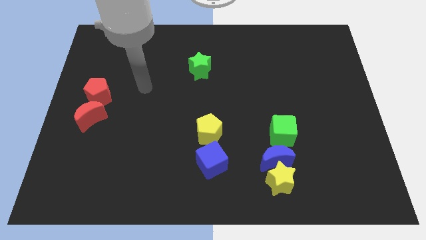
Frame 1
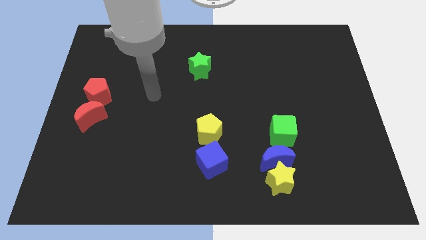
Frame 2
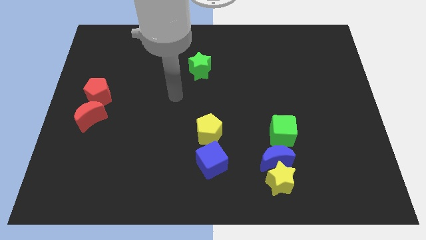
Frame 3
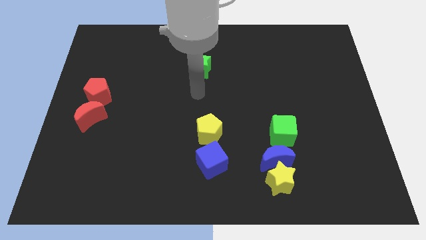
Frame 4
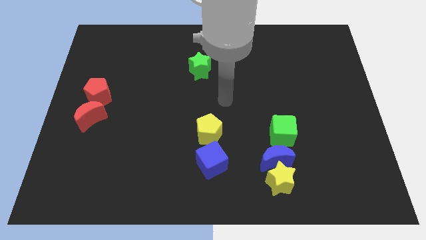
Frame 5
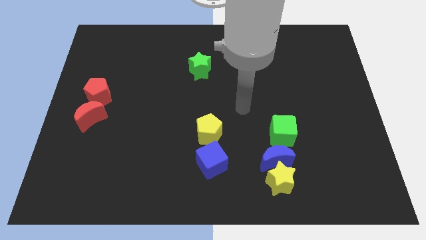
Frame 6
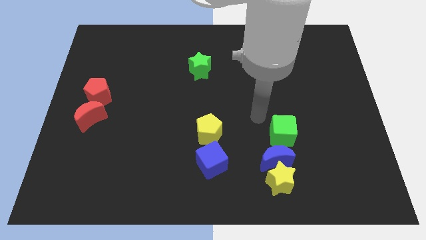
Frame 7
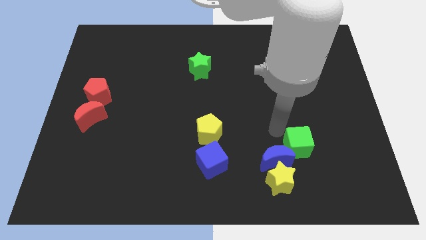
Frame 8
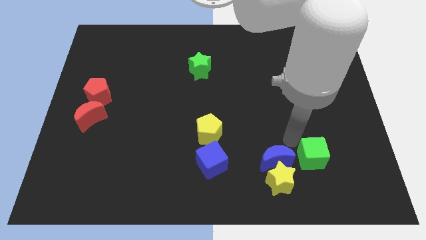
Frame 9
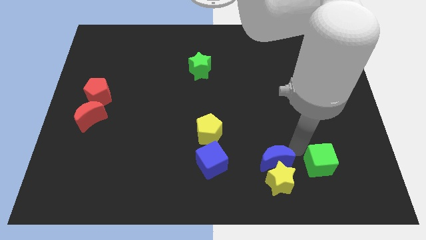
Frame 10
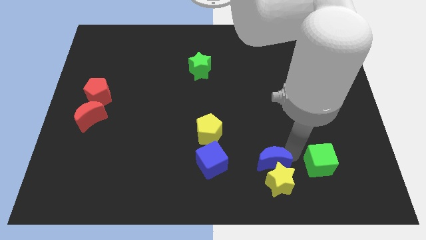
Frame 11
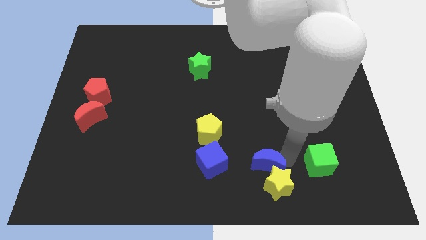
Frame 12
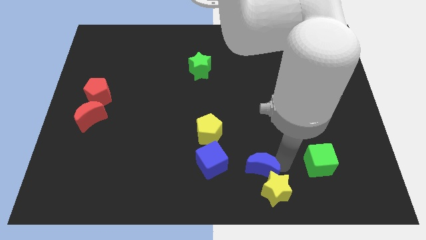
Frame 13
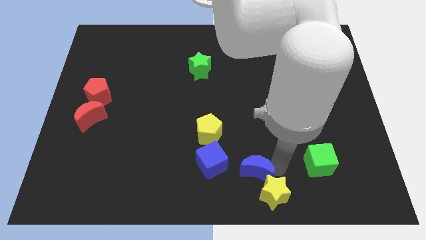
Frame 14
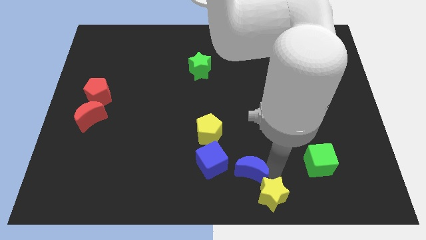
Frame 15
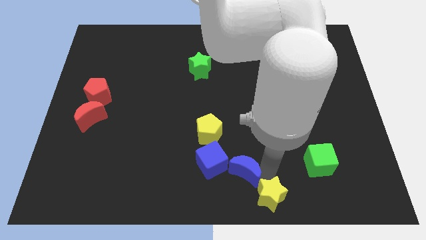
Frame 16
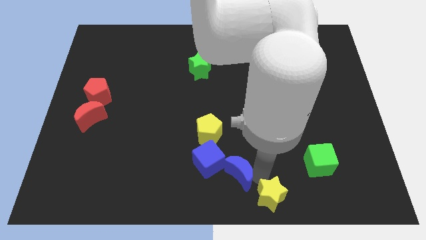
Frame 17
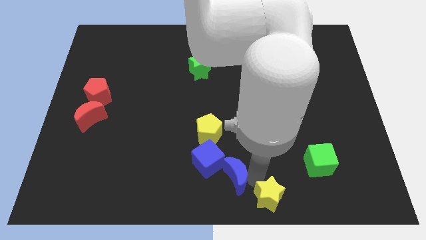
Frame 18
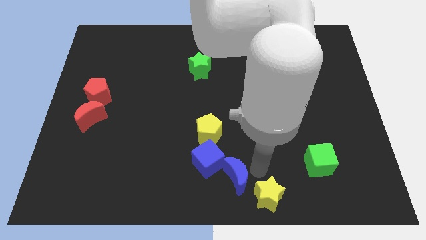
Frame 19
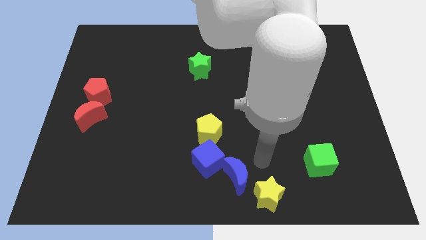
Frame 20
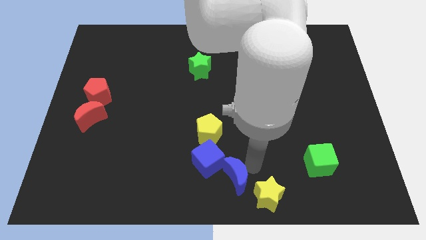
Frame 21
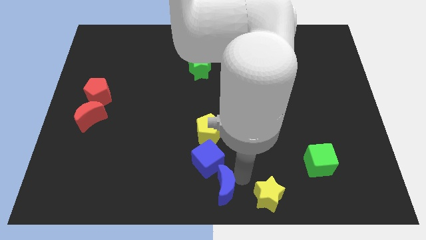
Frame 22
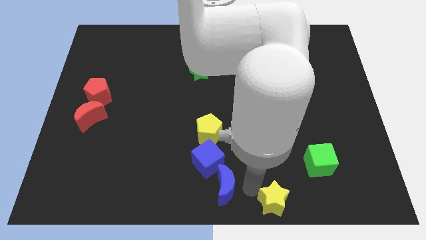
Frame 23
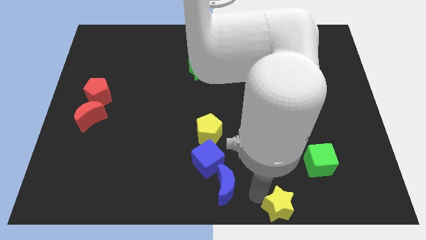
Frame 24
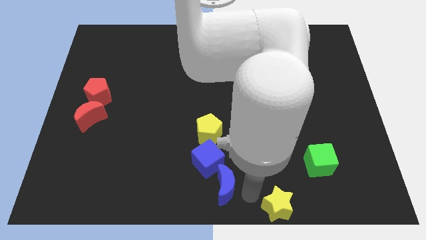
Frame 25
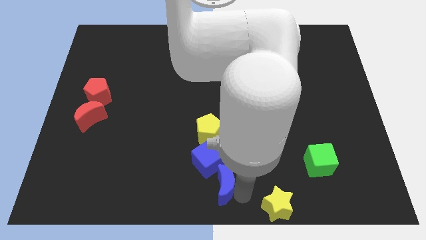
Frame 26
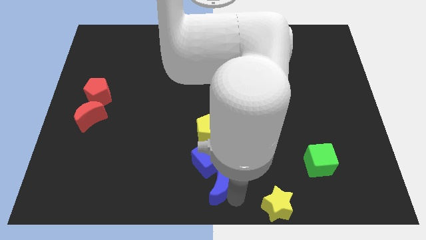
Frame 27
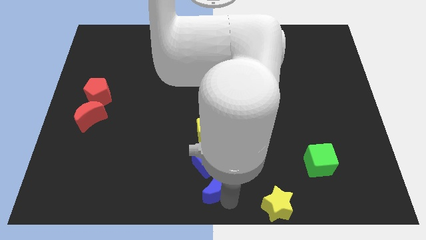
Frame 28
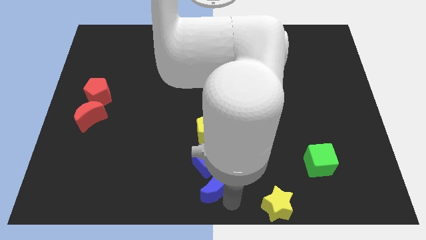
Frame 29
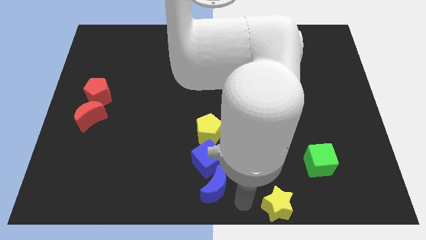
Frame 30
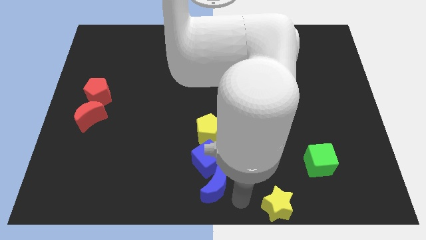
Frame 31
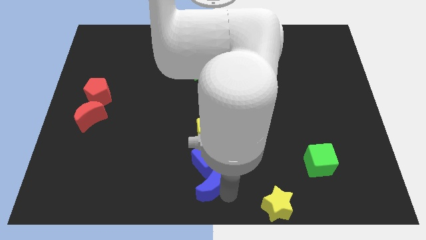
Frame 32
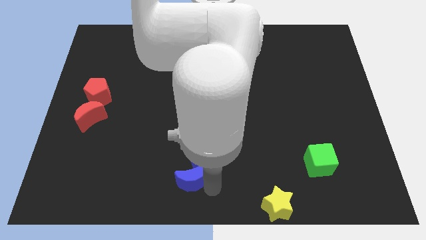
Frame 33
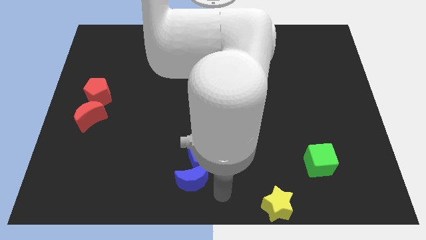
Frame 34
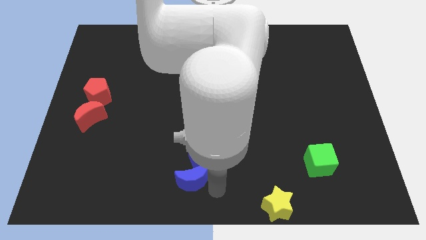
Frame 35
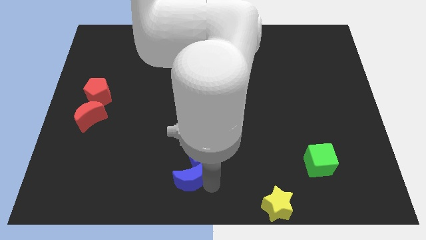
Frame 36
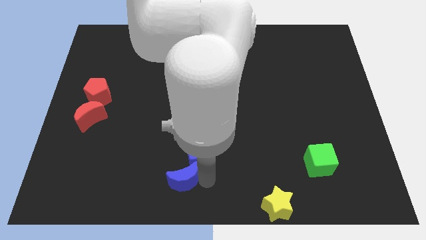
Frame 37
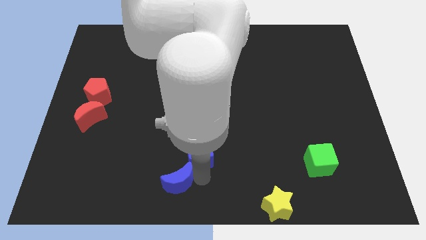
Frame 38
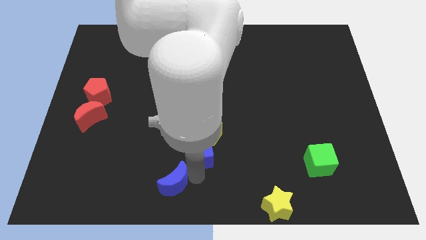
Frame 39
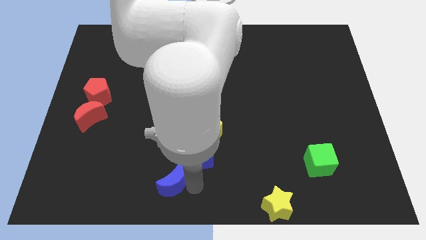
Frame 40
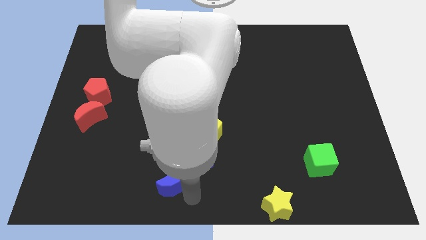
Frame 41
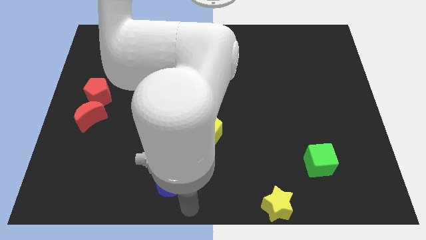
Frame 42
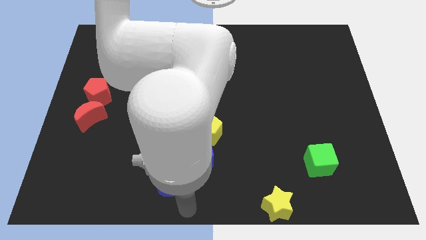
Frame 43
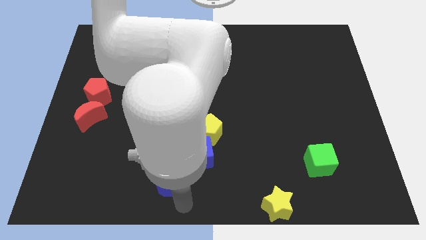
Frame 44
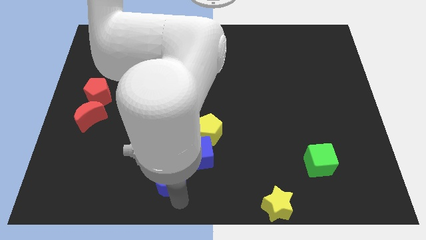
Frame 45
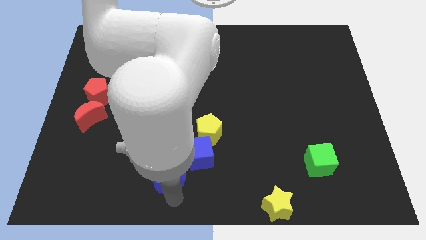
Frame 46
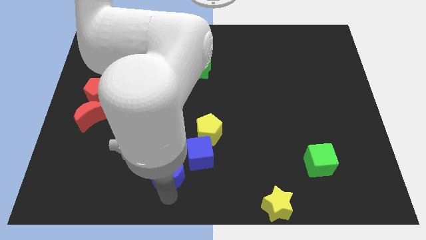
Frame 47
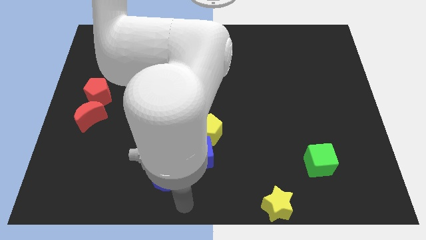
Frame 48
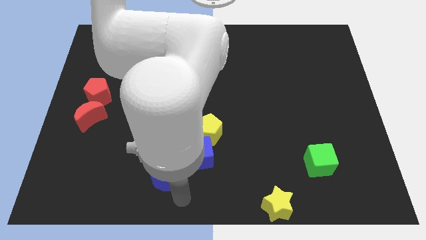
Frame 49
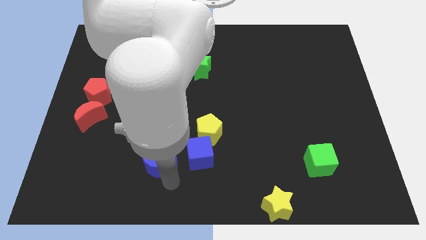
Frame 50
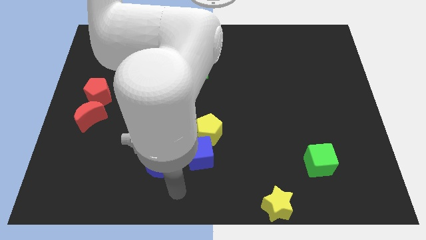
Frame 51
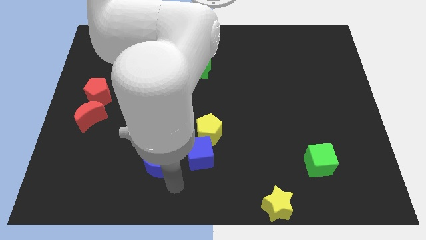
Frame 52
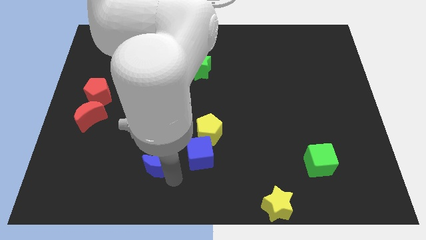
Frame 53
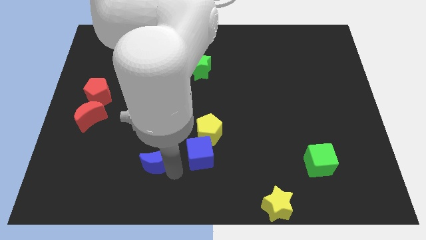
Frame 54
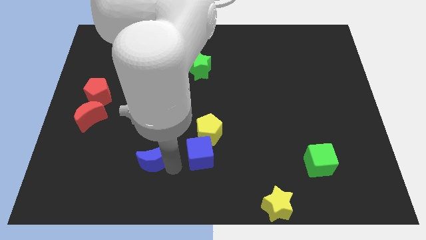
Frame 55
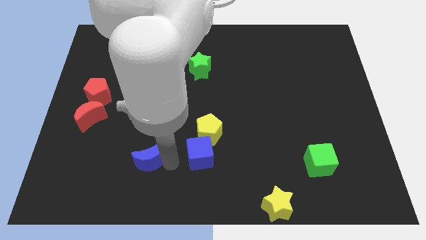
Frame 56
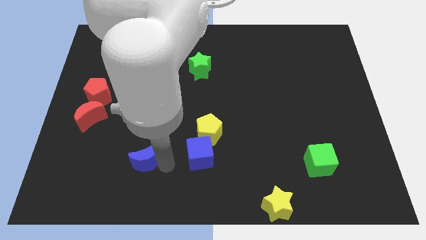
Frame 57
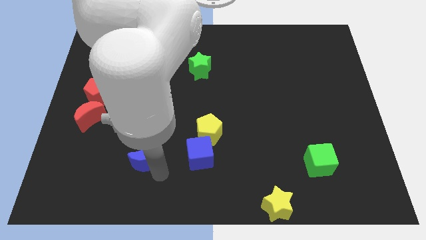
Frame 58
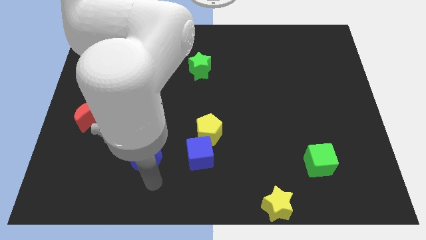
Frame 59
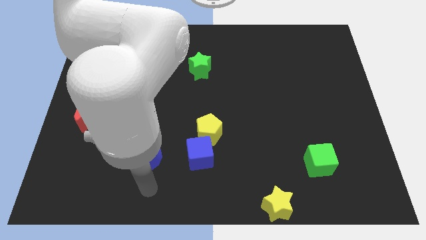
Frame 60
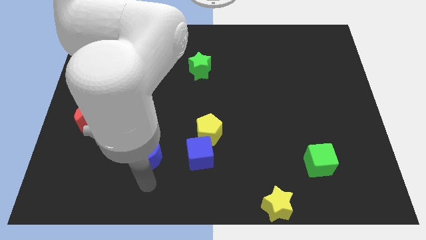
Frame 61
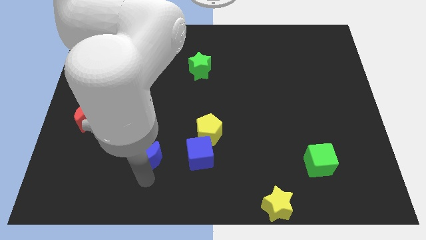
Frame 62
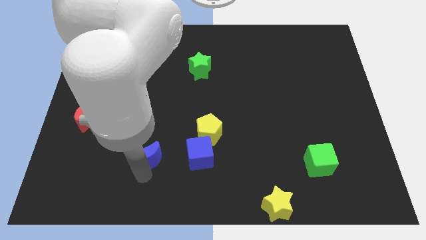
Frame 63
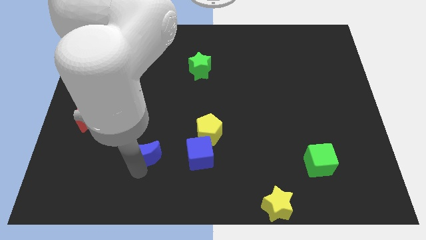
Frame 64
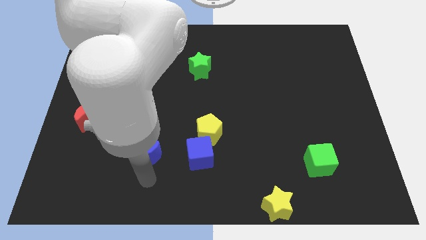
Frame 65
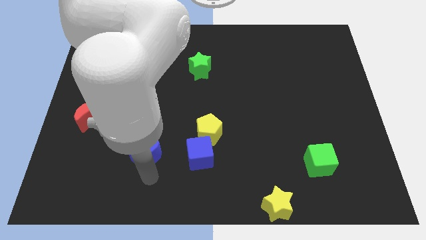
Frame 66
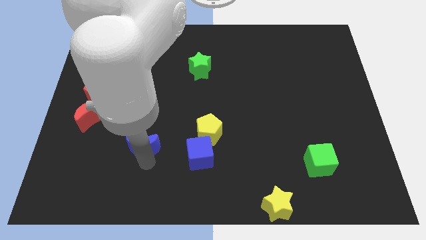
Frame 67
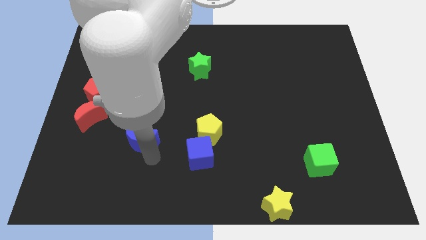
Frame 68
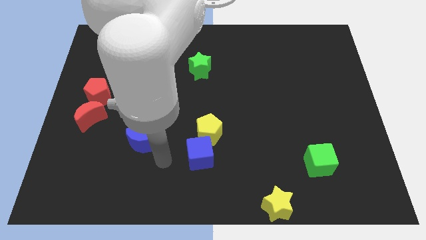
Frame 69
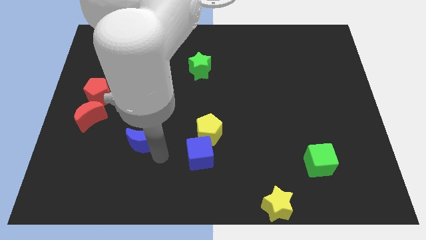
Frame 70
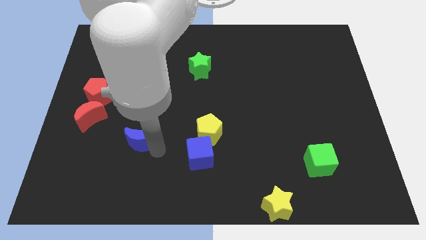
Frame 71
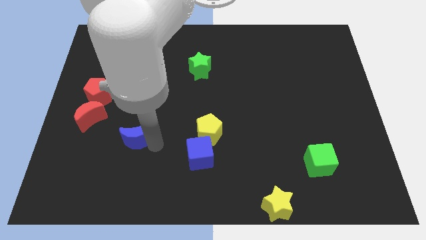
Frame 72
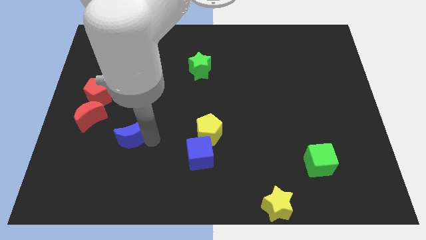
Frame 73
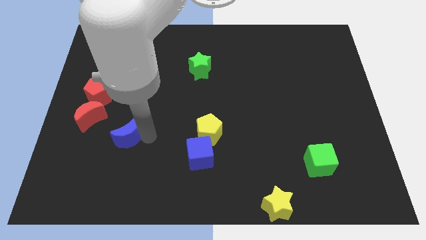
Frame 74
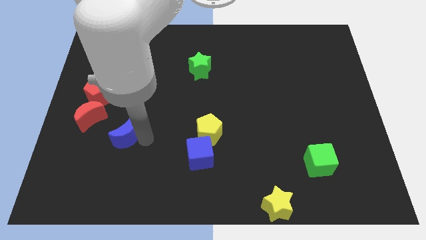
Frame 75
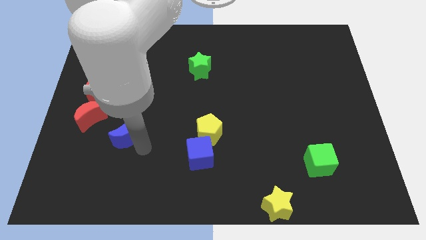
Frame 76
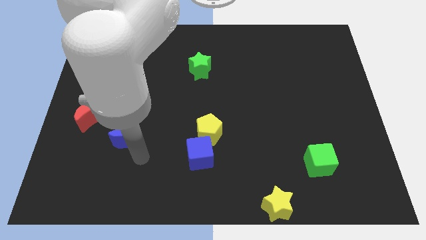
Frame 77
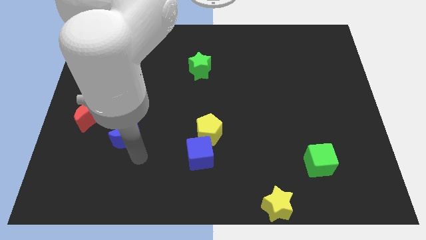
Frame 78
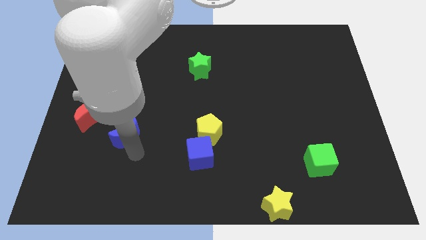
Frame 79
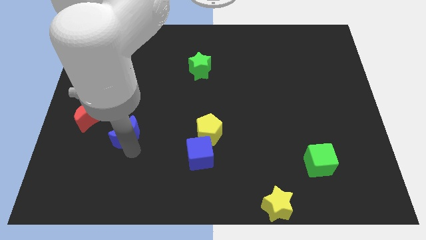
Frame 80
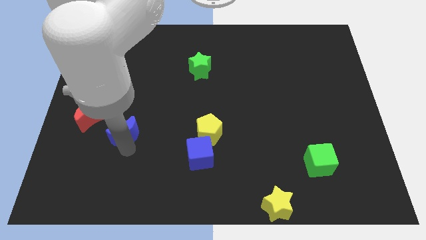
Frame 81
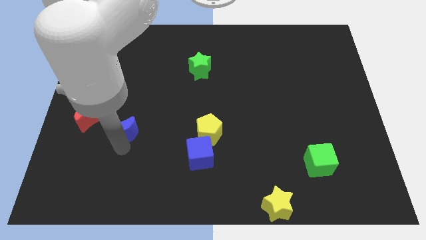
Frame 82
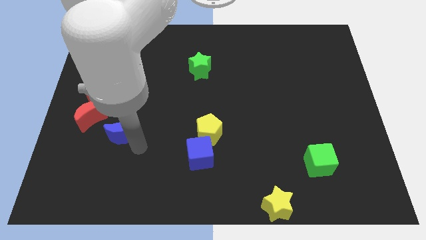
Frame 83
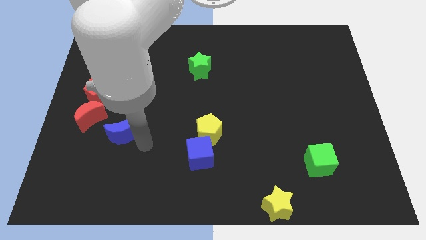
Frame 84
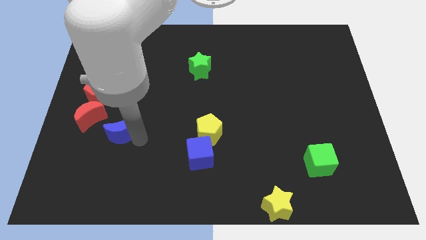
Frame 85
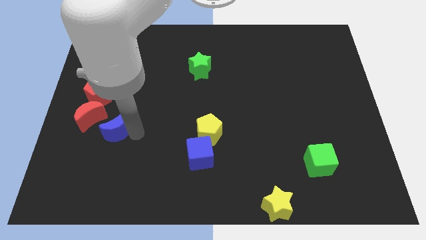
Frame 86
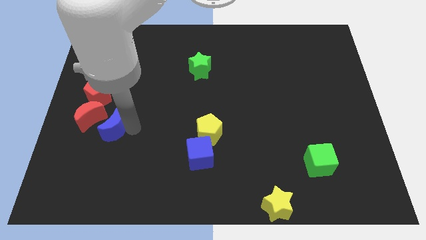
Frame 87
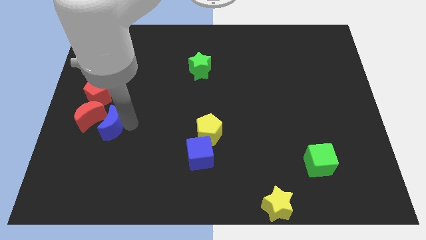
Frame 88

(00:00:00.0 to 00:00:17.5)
move the blue moon close to the red moon
